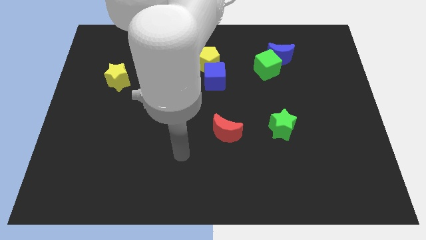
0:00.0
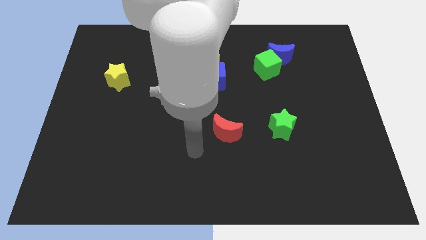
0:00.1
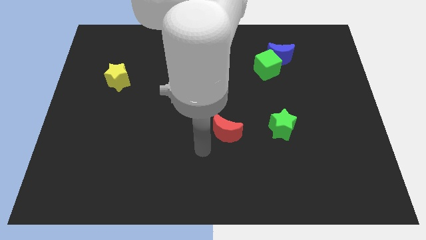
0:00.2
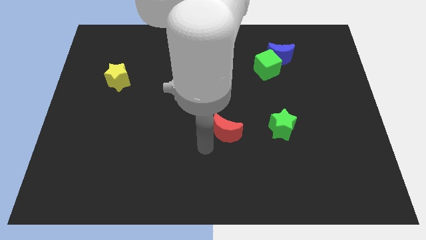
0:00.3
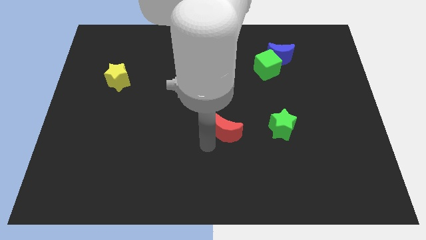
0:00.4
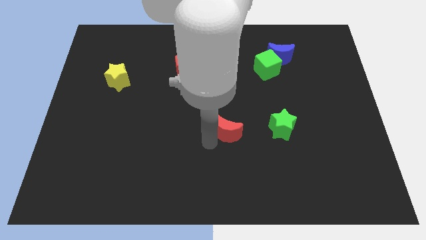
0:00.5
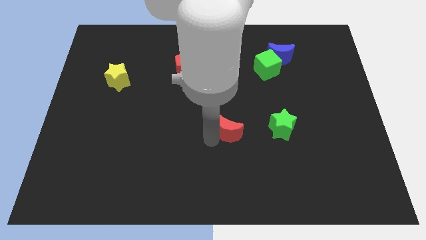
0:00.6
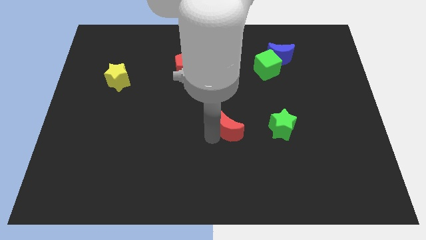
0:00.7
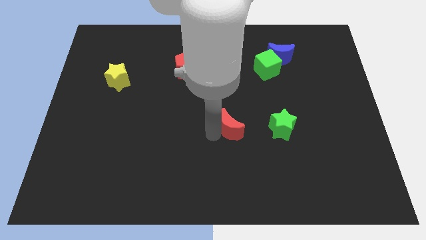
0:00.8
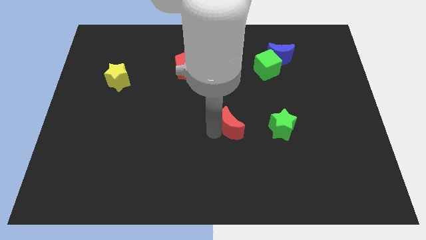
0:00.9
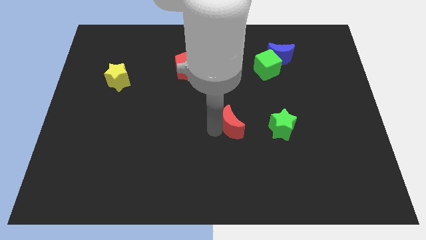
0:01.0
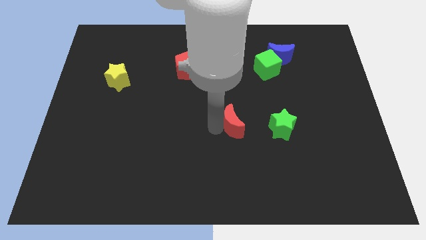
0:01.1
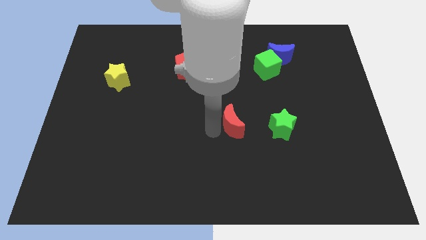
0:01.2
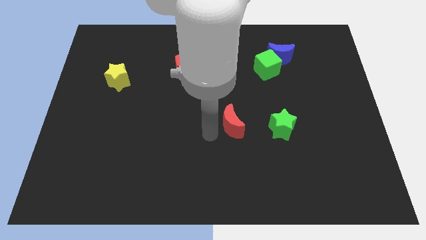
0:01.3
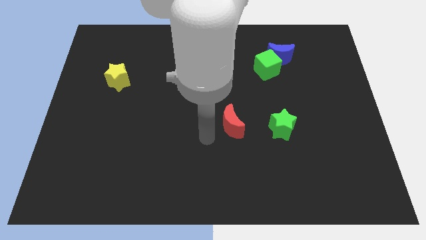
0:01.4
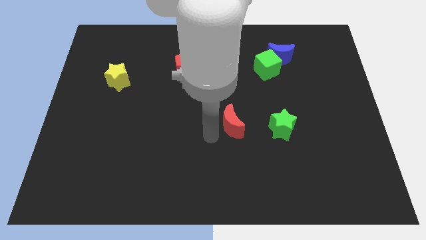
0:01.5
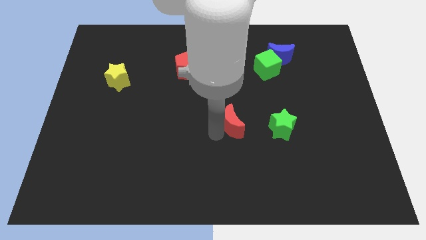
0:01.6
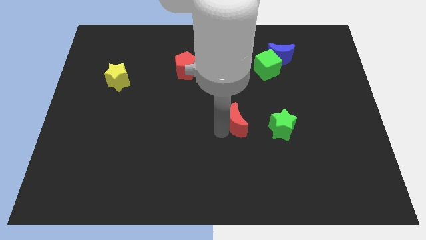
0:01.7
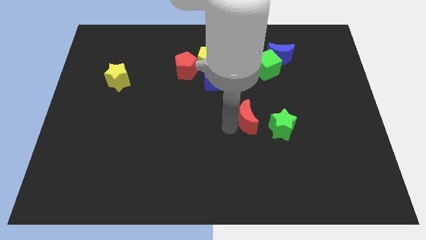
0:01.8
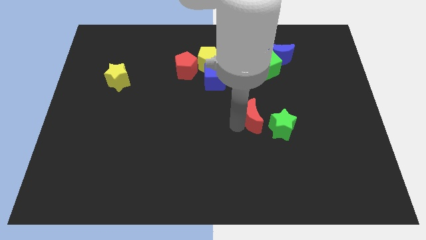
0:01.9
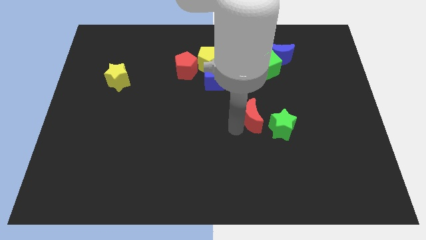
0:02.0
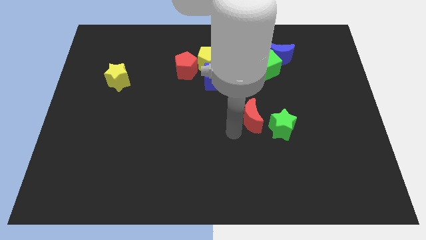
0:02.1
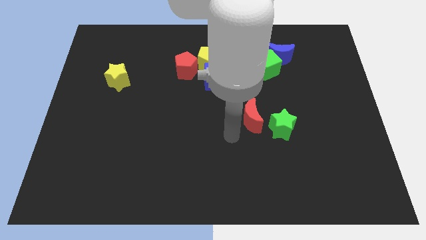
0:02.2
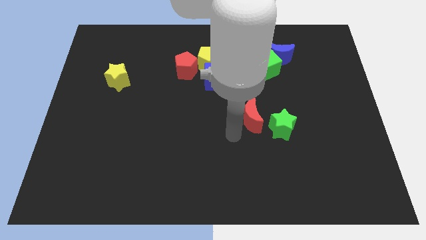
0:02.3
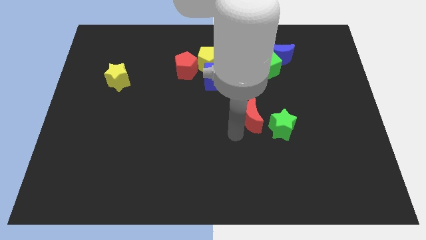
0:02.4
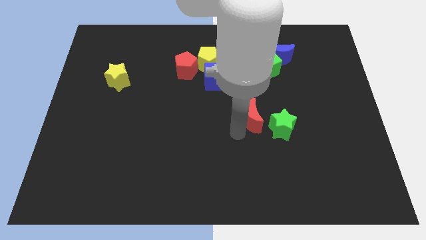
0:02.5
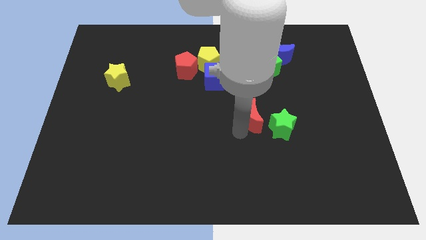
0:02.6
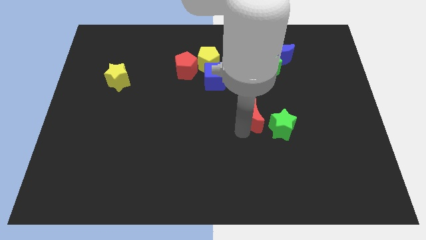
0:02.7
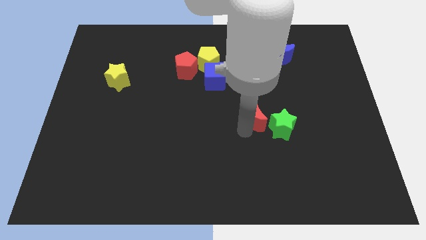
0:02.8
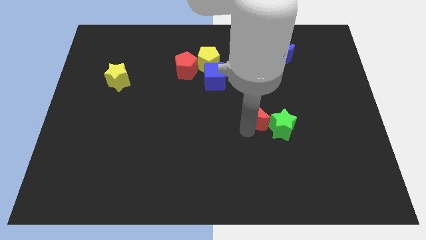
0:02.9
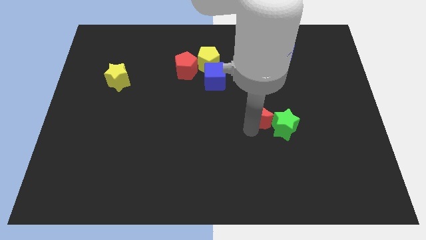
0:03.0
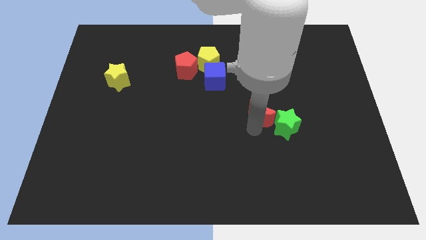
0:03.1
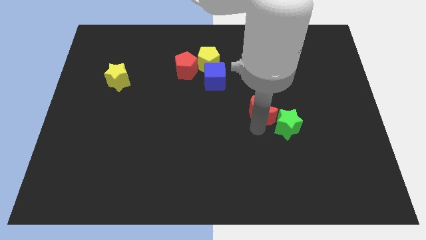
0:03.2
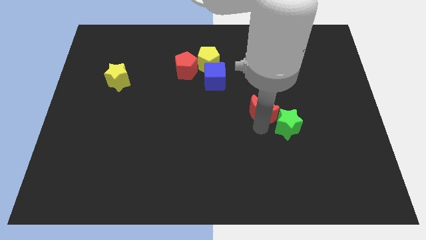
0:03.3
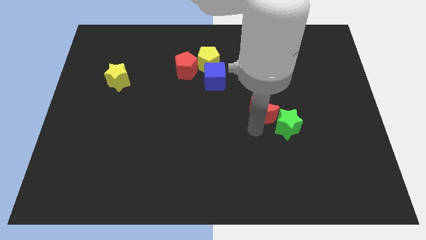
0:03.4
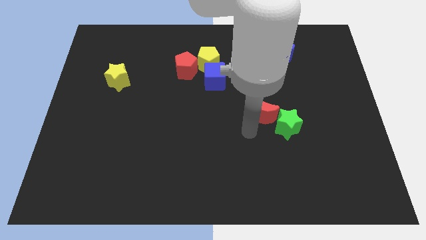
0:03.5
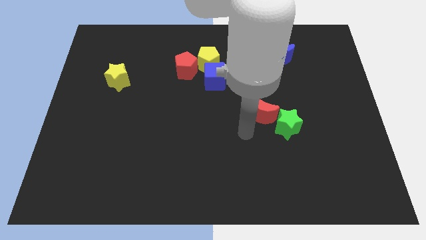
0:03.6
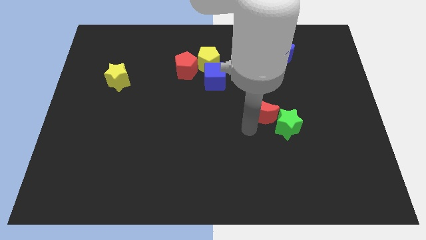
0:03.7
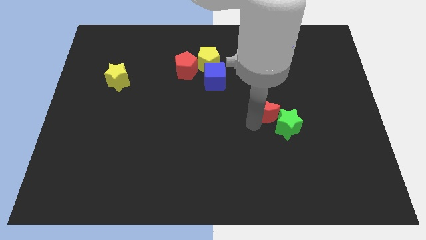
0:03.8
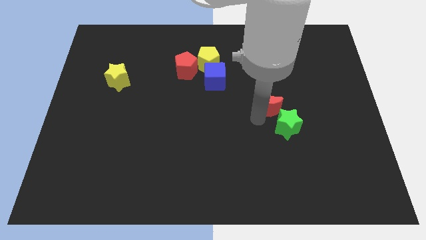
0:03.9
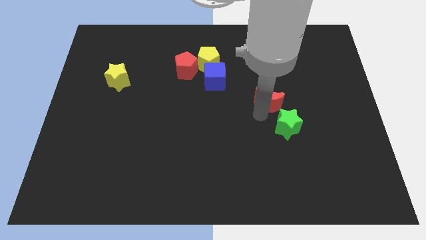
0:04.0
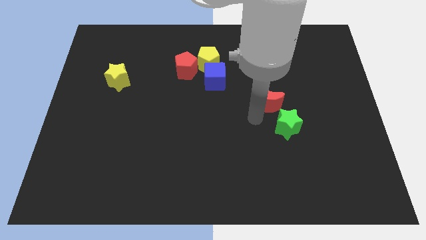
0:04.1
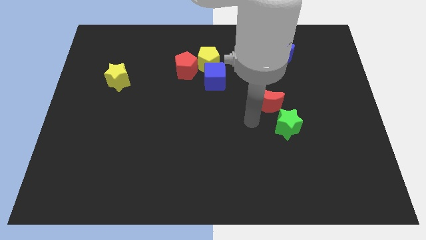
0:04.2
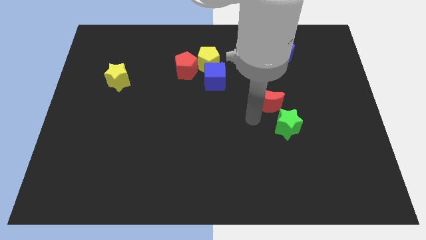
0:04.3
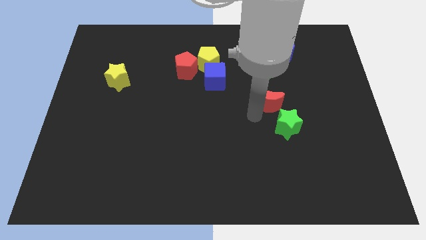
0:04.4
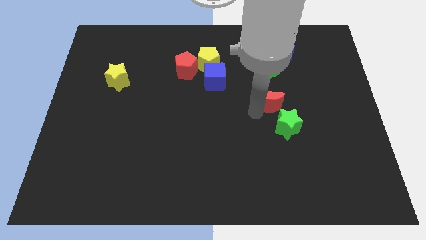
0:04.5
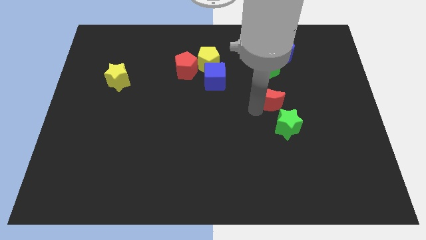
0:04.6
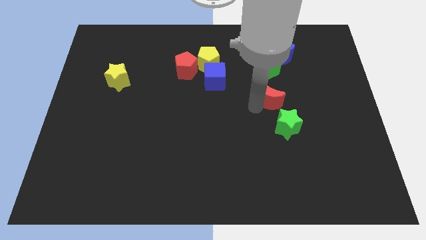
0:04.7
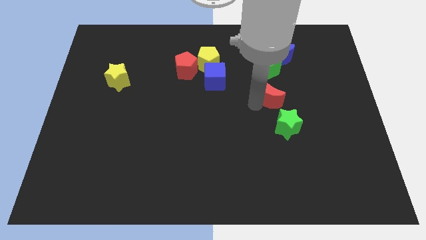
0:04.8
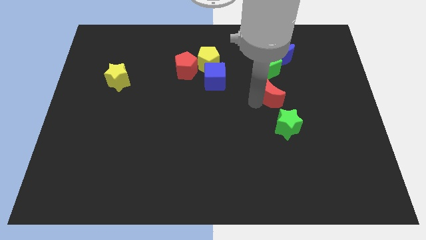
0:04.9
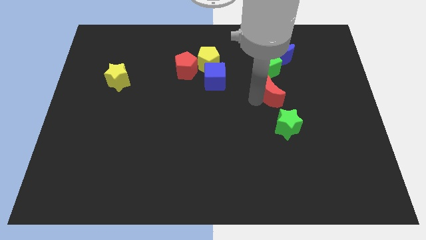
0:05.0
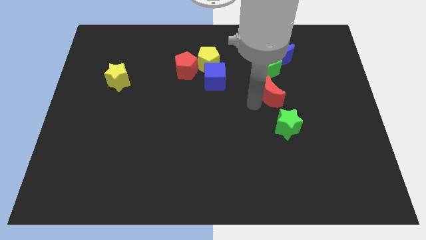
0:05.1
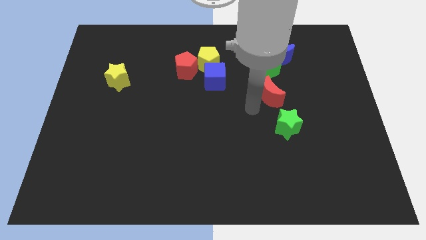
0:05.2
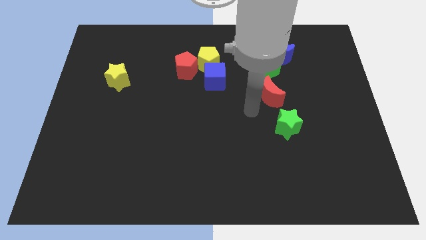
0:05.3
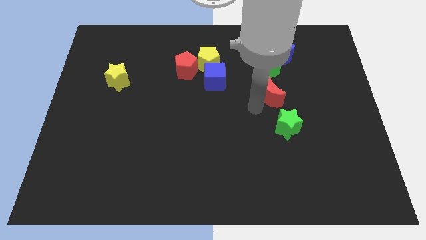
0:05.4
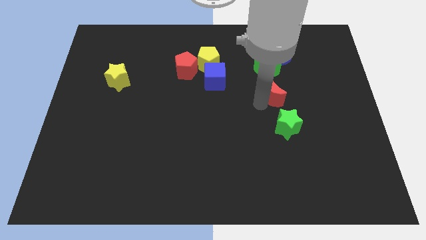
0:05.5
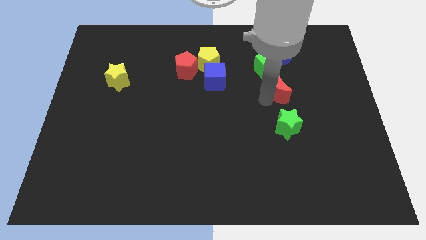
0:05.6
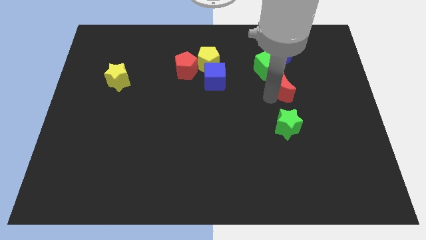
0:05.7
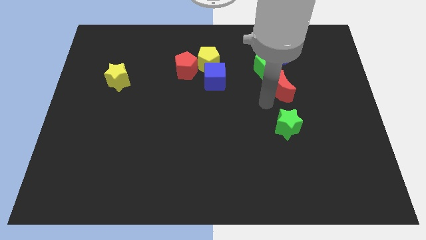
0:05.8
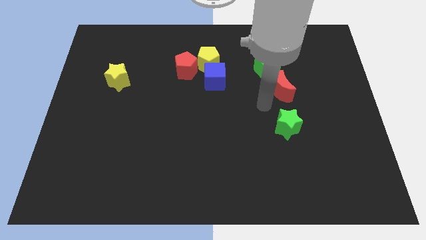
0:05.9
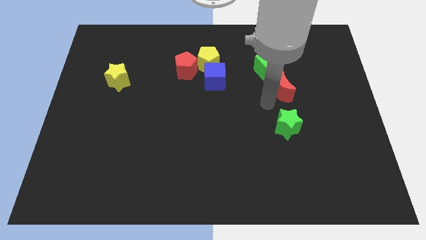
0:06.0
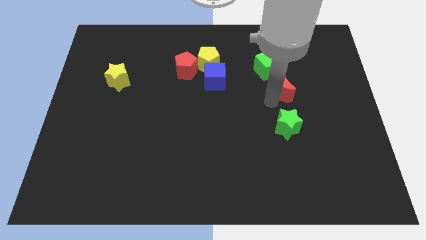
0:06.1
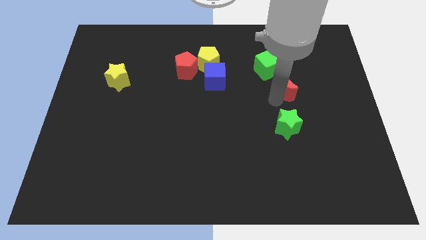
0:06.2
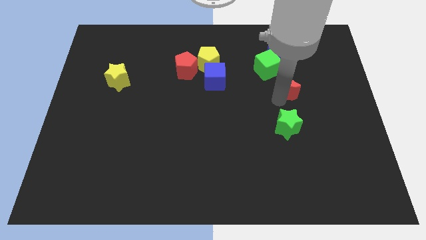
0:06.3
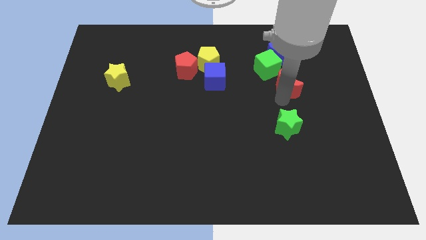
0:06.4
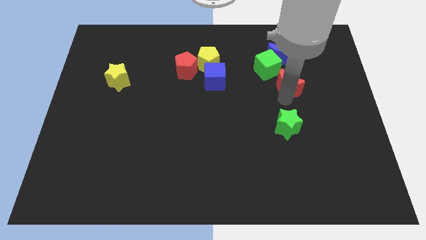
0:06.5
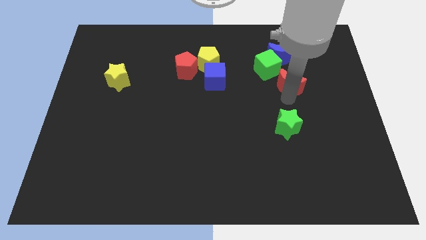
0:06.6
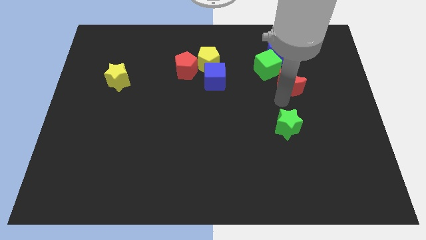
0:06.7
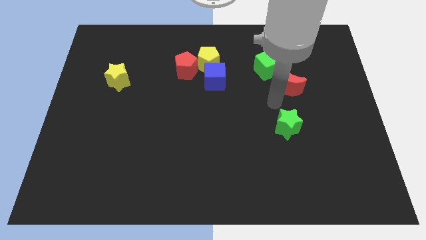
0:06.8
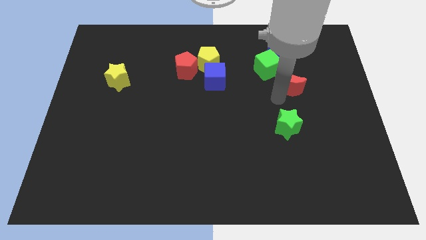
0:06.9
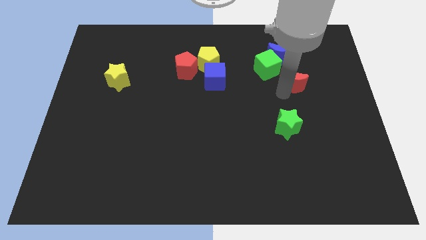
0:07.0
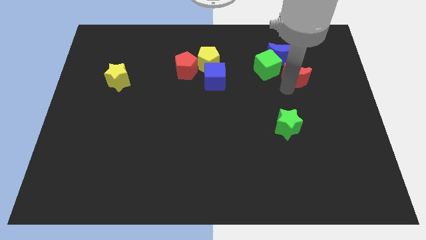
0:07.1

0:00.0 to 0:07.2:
slide the red moon to the right side of the green cube
